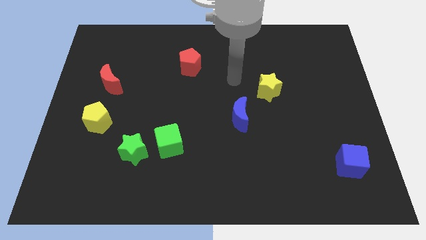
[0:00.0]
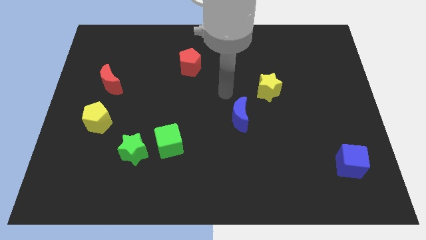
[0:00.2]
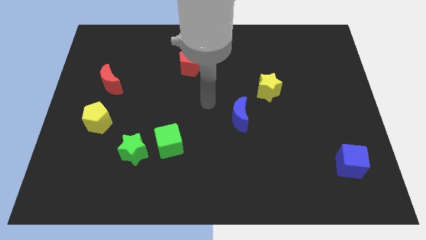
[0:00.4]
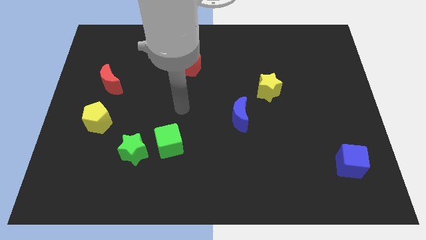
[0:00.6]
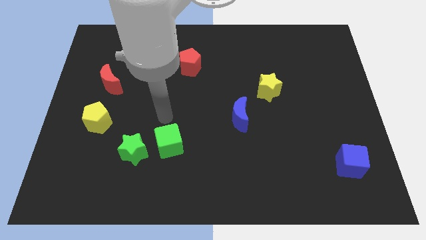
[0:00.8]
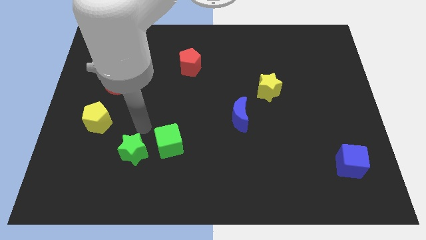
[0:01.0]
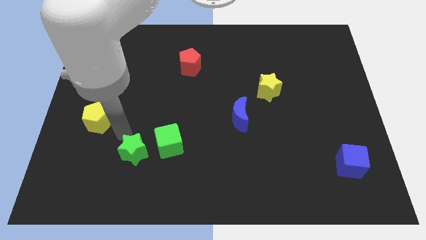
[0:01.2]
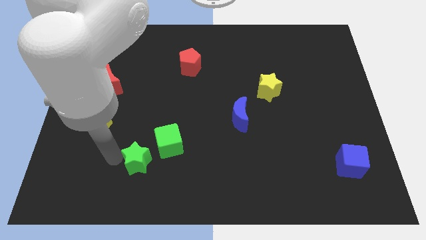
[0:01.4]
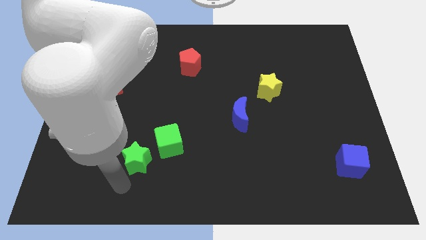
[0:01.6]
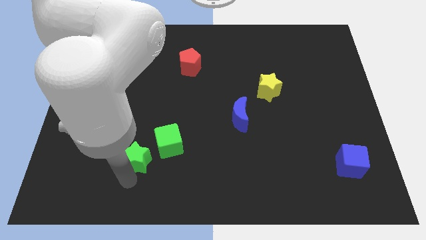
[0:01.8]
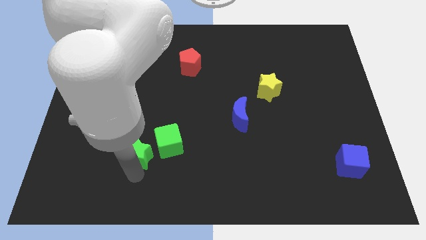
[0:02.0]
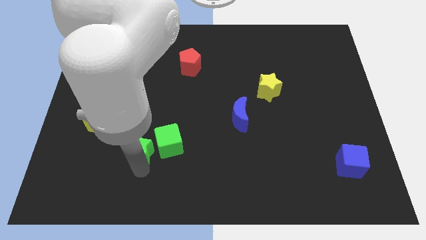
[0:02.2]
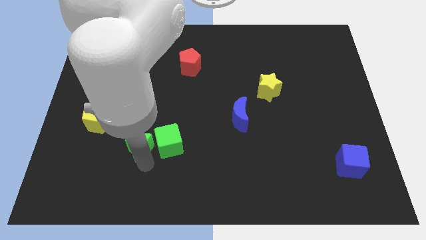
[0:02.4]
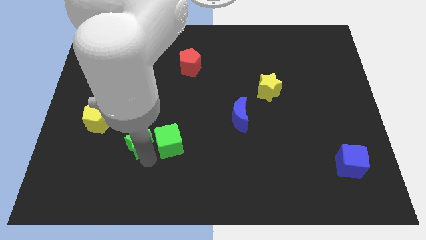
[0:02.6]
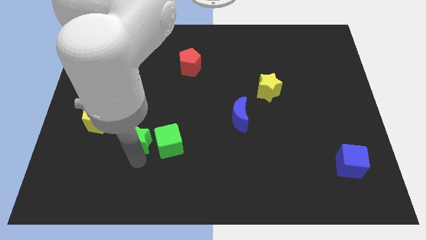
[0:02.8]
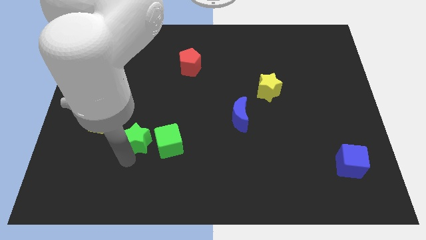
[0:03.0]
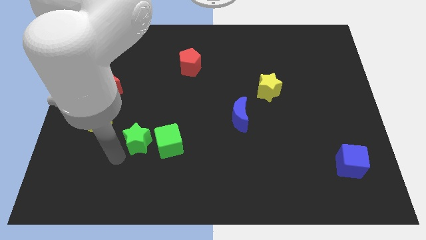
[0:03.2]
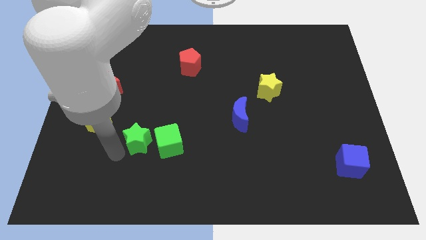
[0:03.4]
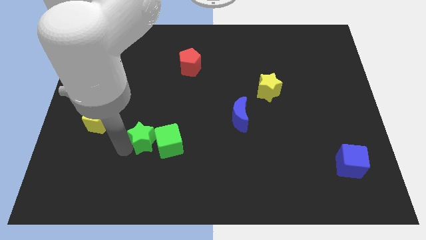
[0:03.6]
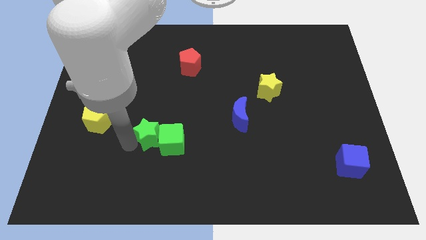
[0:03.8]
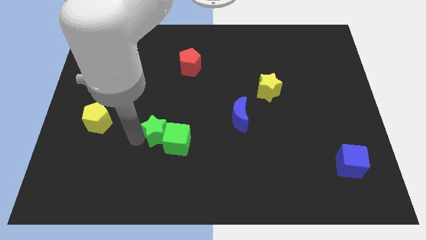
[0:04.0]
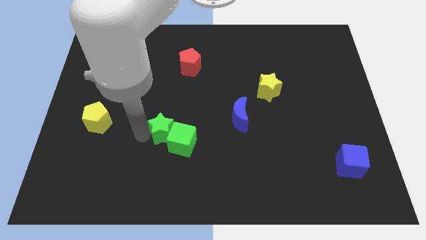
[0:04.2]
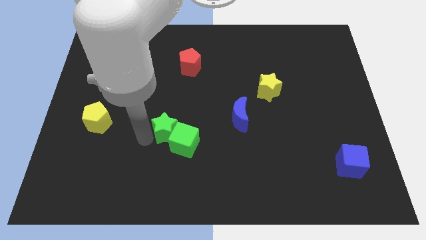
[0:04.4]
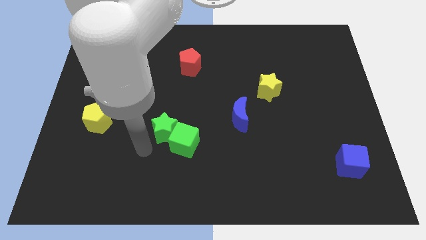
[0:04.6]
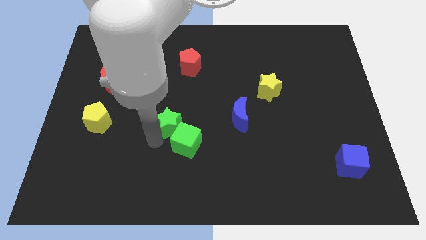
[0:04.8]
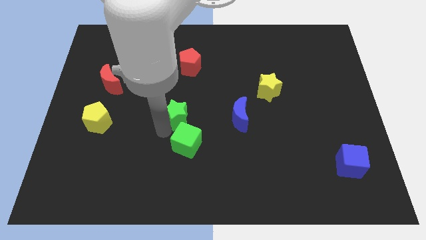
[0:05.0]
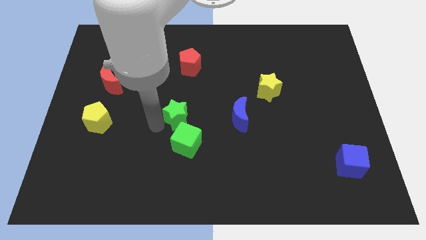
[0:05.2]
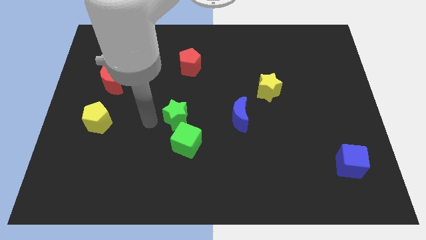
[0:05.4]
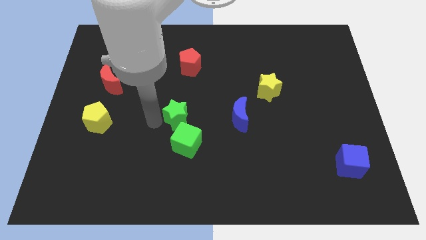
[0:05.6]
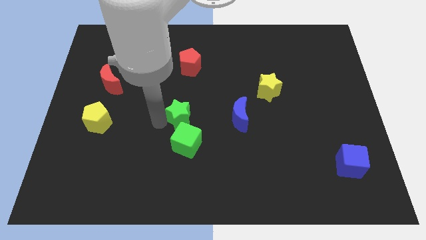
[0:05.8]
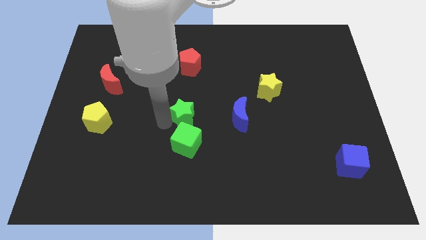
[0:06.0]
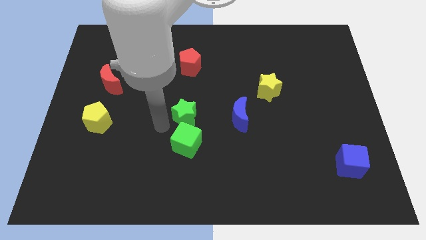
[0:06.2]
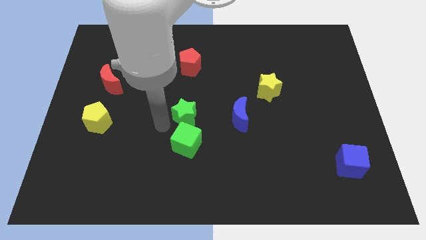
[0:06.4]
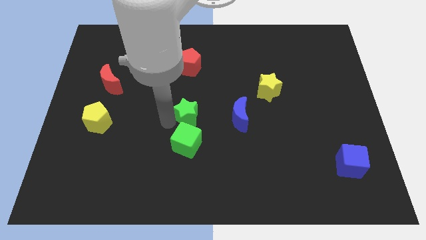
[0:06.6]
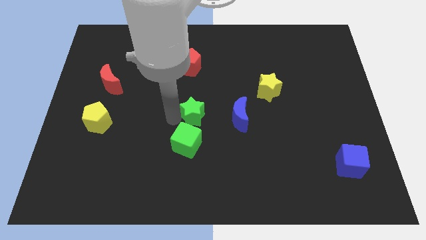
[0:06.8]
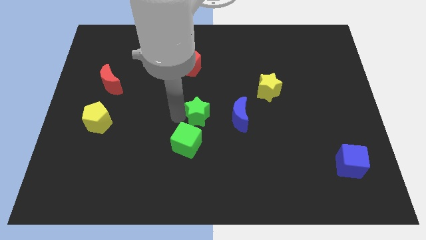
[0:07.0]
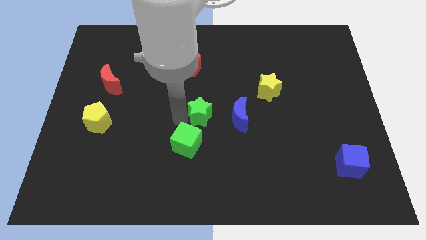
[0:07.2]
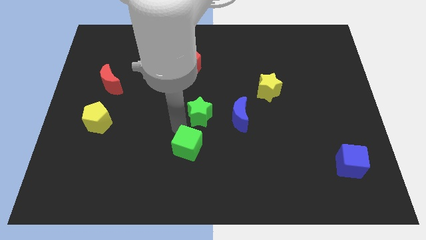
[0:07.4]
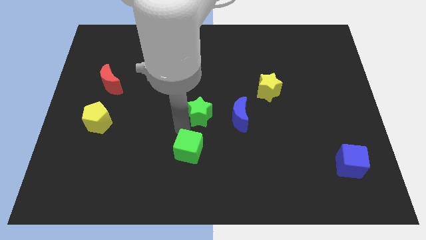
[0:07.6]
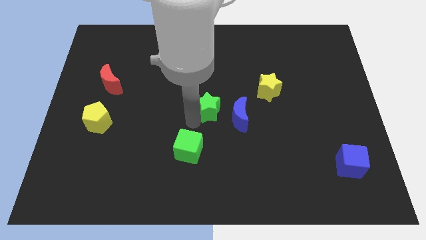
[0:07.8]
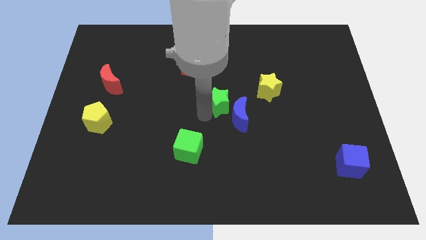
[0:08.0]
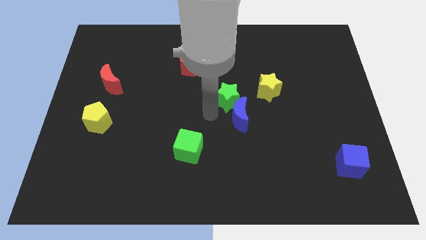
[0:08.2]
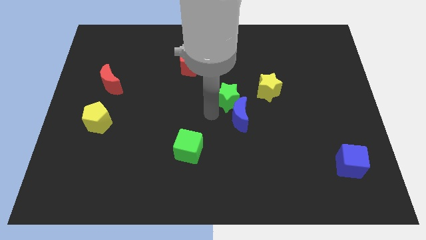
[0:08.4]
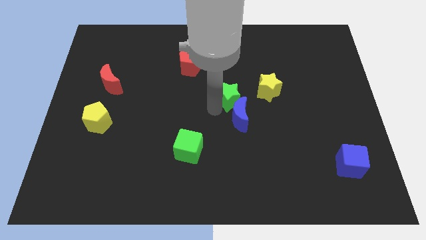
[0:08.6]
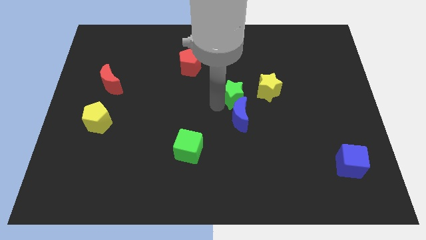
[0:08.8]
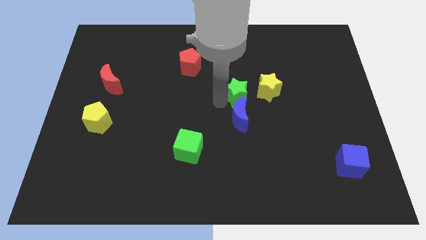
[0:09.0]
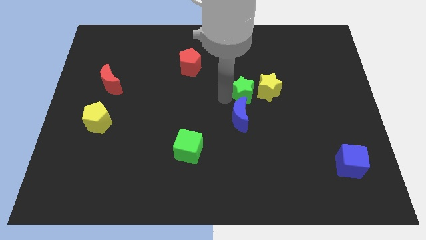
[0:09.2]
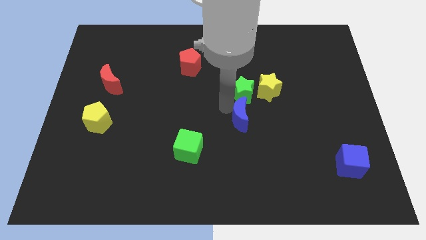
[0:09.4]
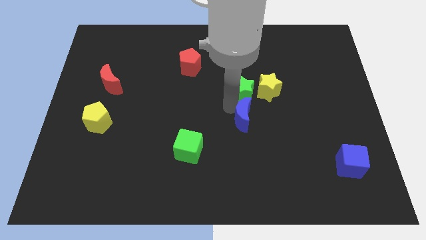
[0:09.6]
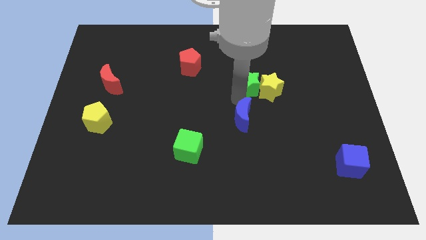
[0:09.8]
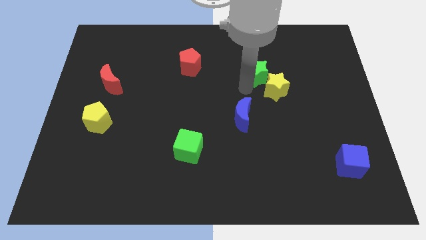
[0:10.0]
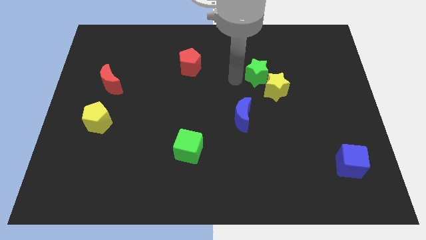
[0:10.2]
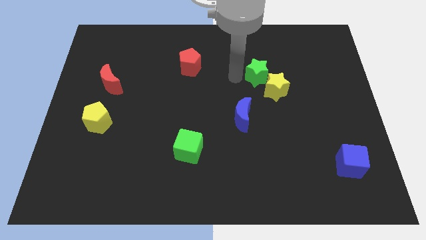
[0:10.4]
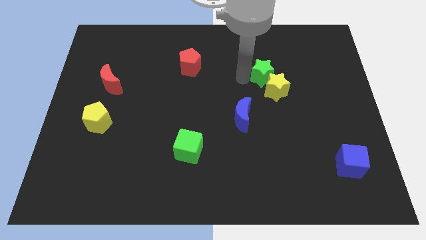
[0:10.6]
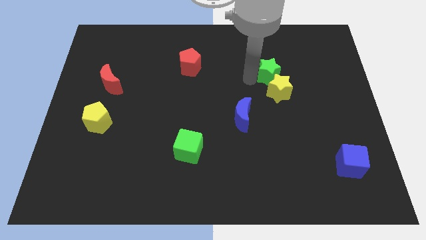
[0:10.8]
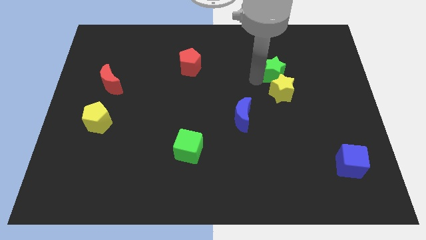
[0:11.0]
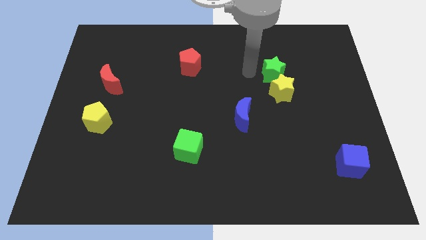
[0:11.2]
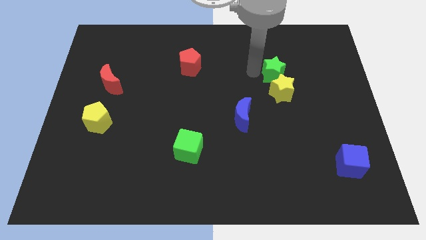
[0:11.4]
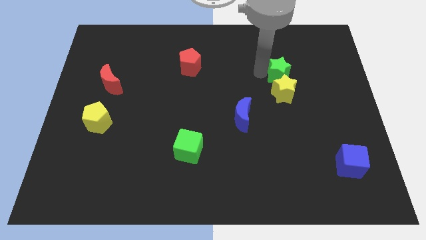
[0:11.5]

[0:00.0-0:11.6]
slide the green star to the top right of the yellow star

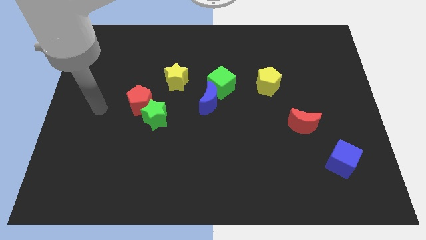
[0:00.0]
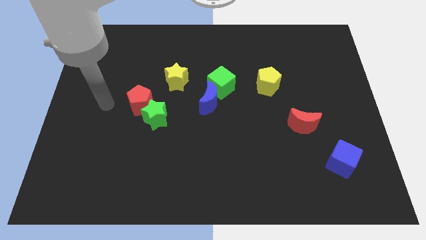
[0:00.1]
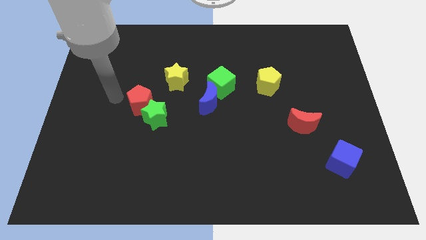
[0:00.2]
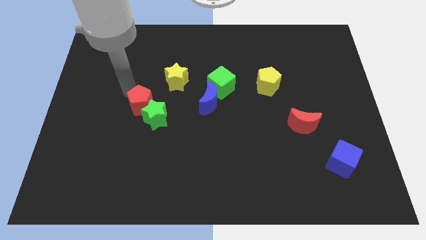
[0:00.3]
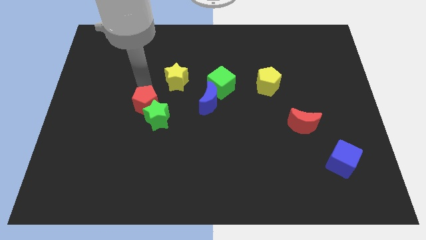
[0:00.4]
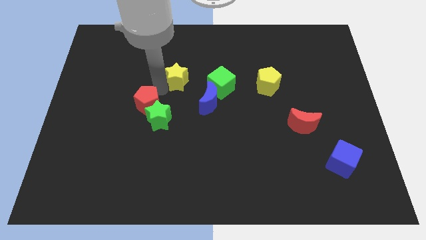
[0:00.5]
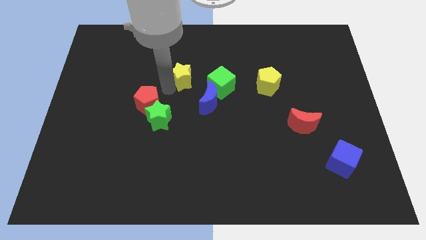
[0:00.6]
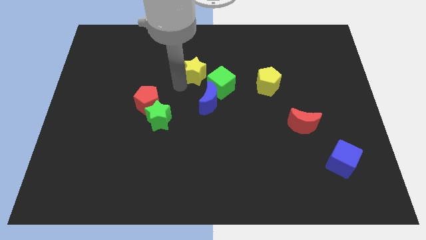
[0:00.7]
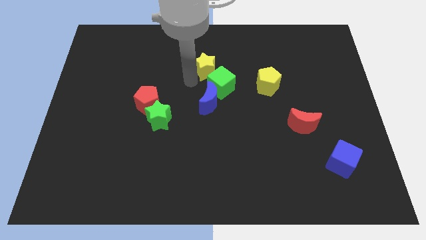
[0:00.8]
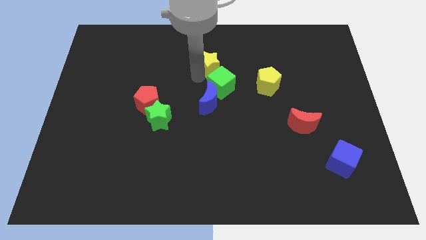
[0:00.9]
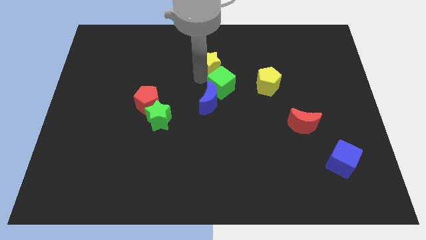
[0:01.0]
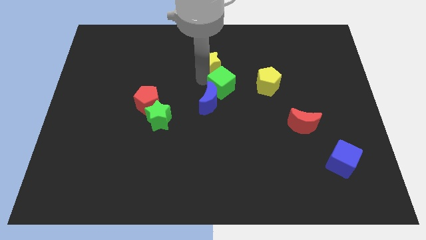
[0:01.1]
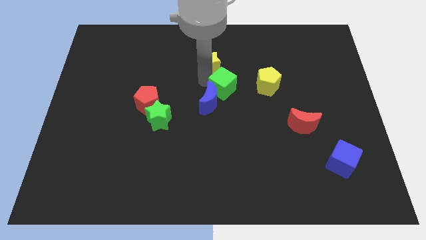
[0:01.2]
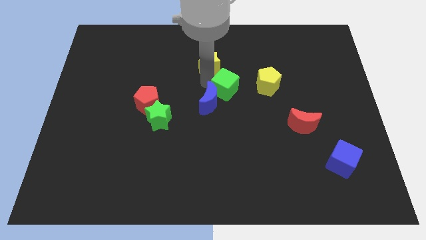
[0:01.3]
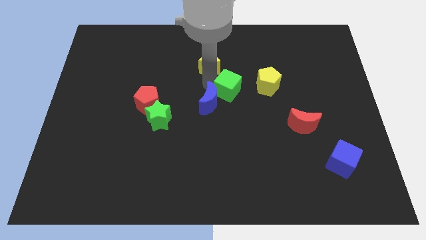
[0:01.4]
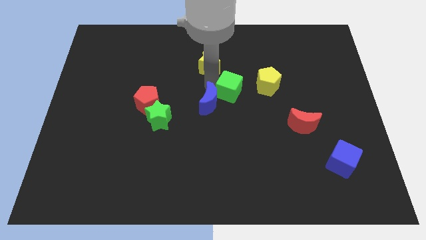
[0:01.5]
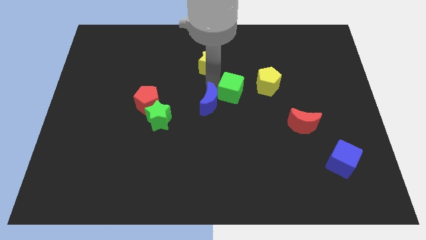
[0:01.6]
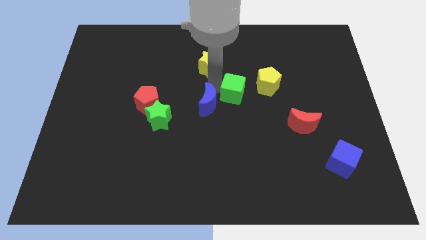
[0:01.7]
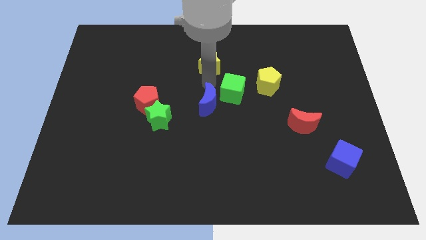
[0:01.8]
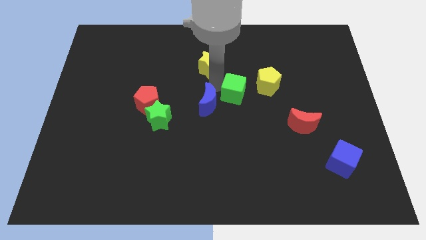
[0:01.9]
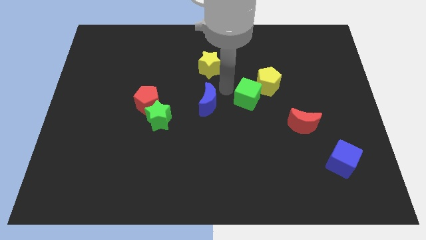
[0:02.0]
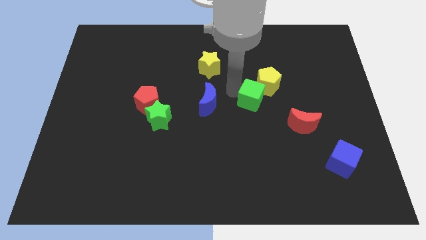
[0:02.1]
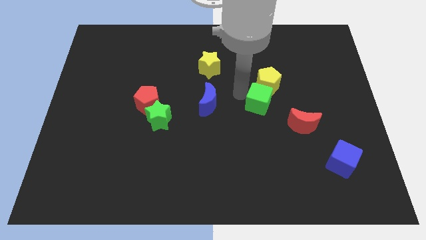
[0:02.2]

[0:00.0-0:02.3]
slide the green cube diagonally up and to the left of the red moon
